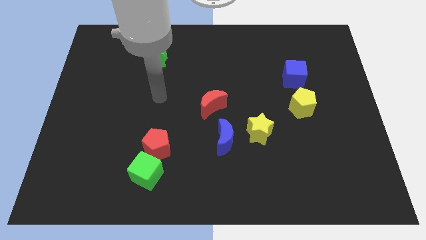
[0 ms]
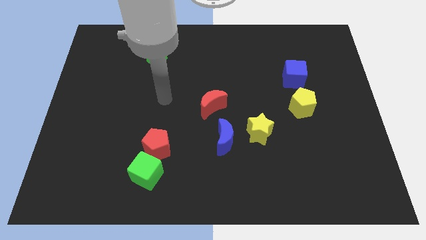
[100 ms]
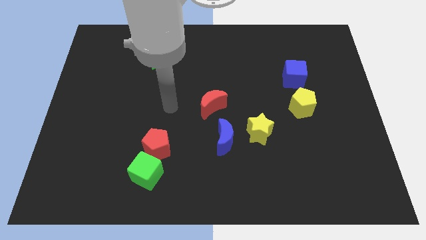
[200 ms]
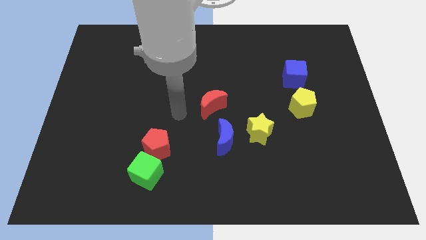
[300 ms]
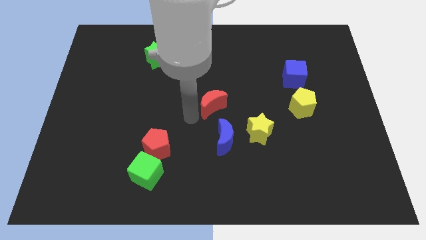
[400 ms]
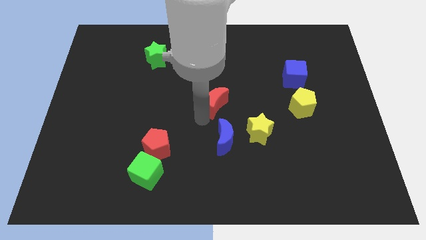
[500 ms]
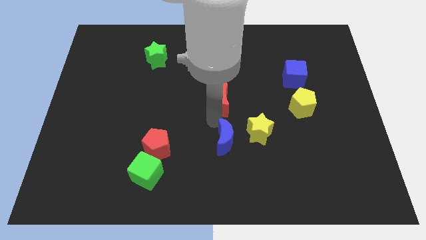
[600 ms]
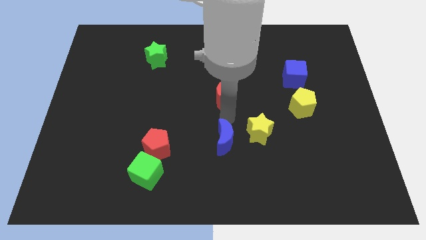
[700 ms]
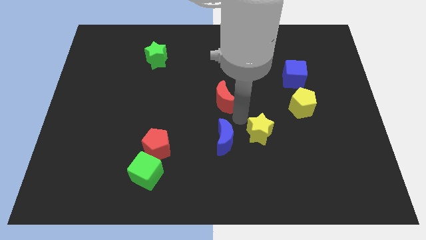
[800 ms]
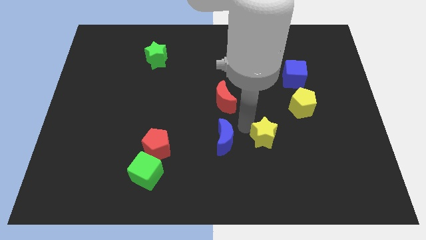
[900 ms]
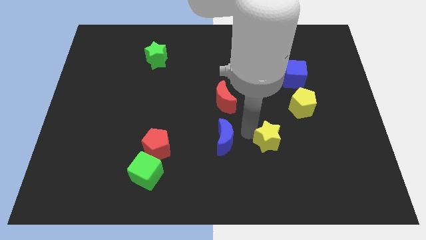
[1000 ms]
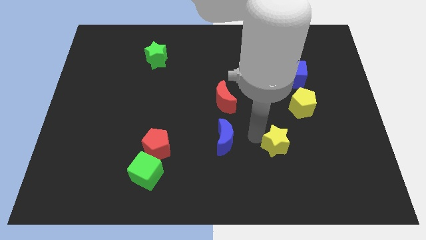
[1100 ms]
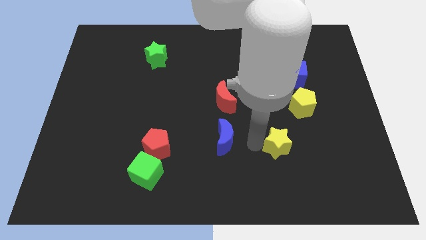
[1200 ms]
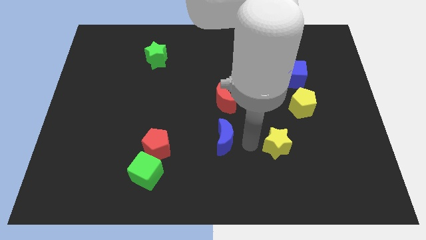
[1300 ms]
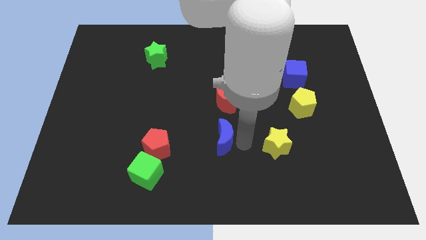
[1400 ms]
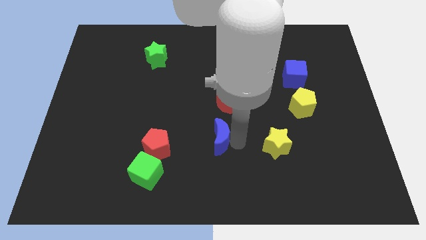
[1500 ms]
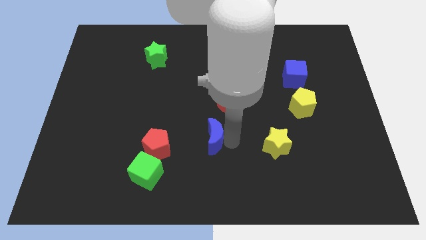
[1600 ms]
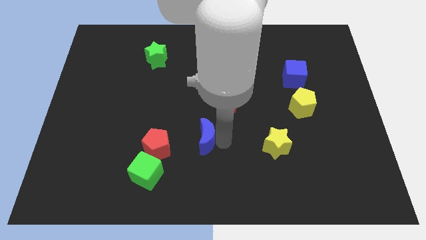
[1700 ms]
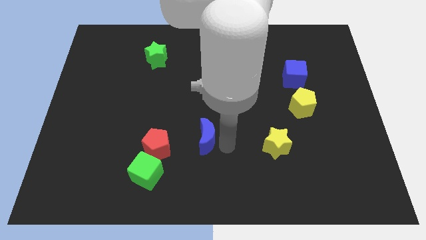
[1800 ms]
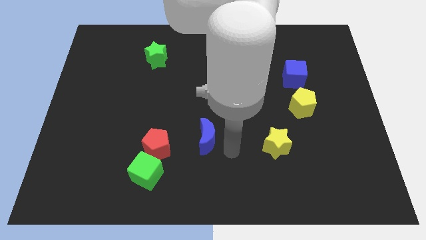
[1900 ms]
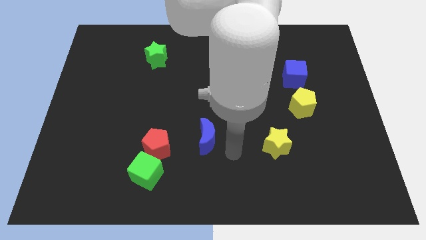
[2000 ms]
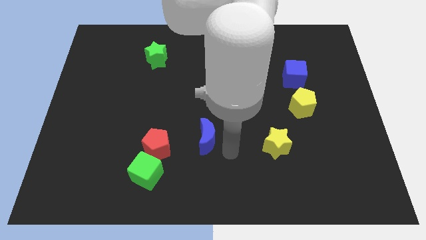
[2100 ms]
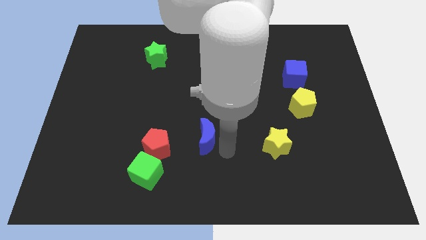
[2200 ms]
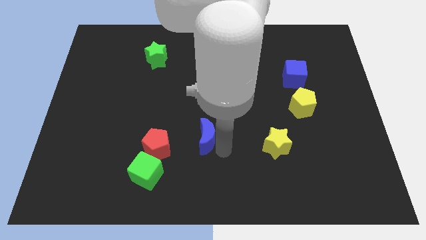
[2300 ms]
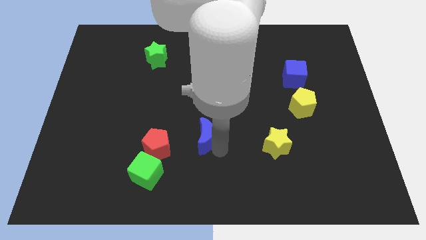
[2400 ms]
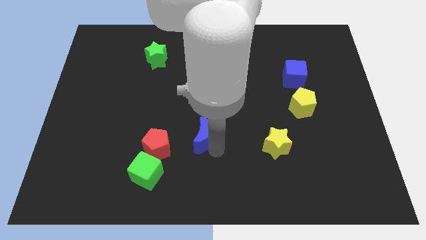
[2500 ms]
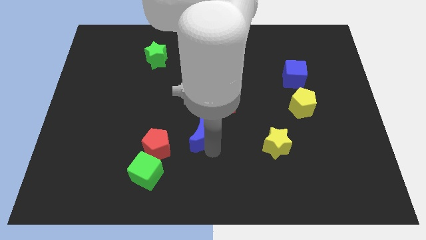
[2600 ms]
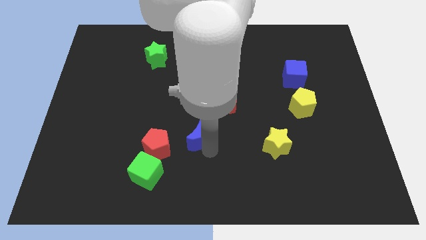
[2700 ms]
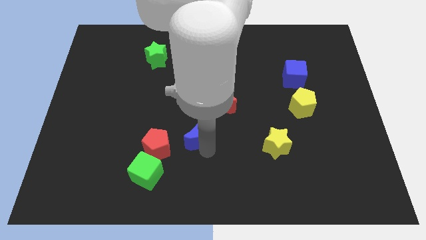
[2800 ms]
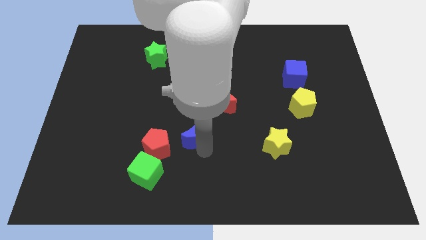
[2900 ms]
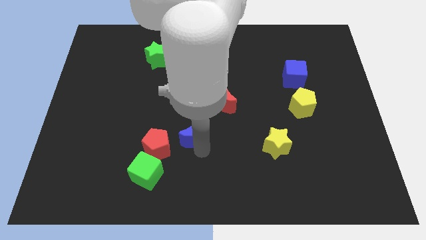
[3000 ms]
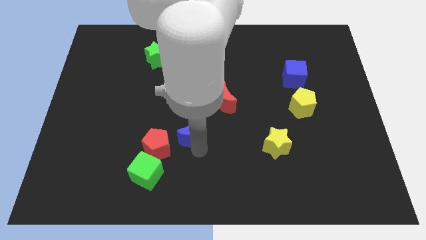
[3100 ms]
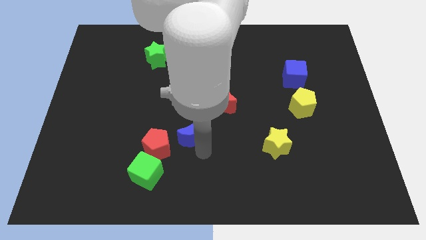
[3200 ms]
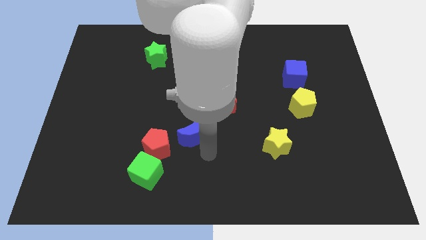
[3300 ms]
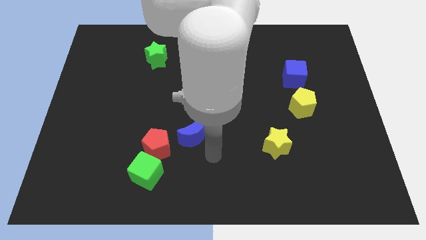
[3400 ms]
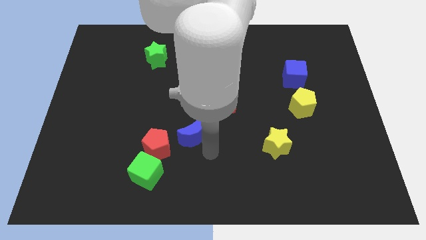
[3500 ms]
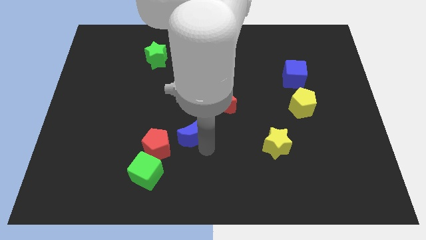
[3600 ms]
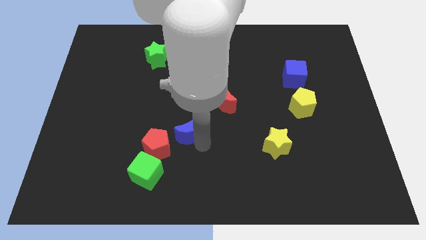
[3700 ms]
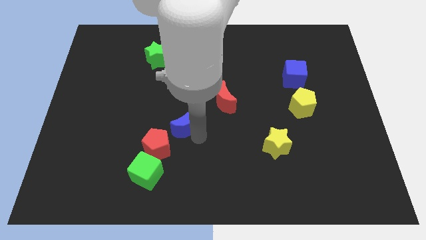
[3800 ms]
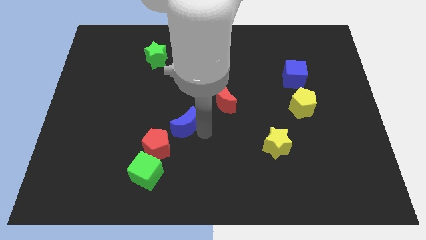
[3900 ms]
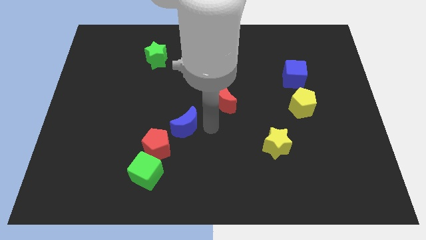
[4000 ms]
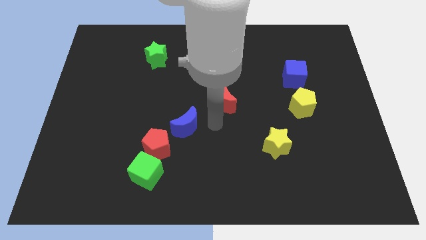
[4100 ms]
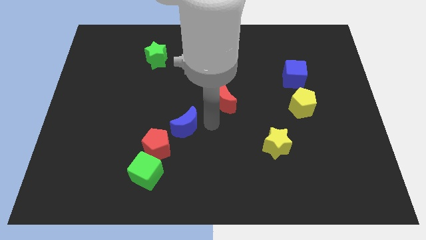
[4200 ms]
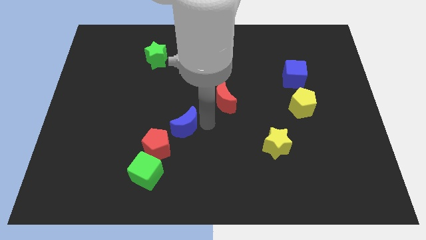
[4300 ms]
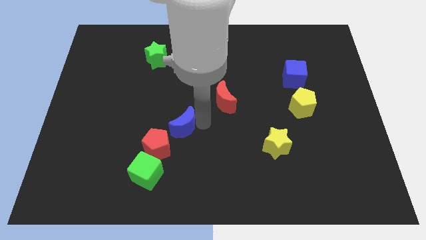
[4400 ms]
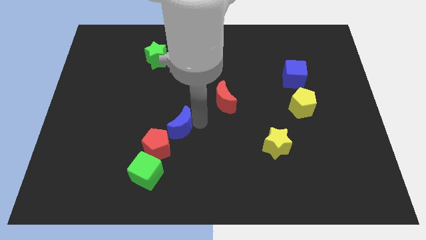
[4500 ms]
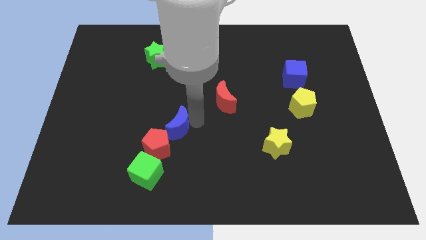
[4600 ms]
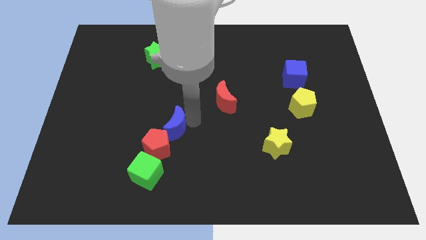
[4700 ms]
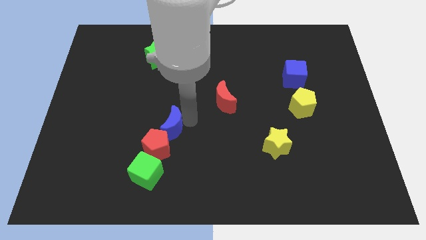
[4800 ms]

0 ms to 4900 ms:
push the blue moon to the top side of the green cube

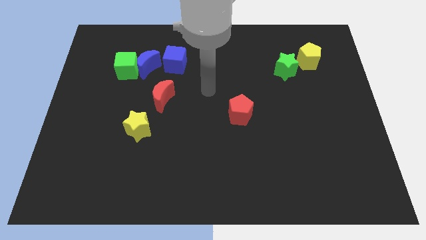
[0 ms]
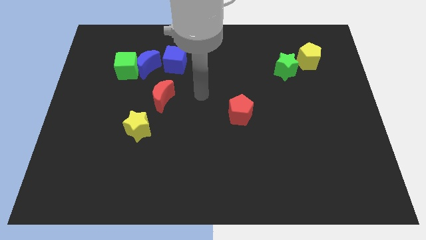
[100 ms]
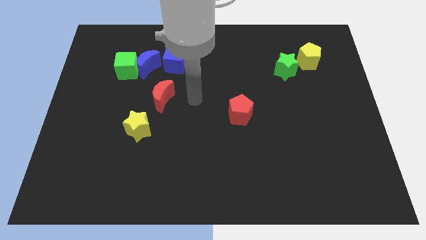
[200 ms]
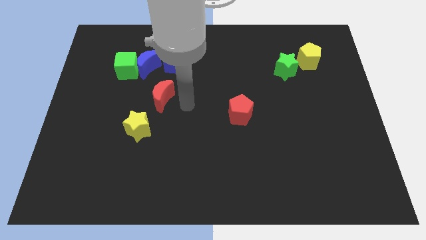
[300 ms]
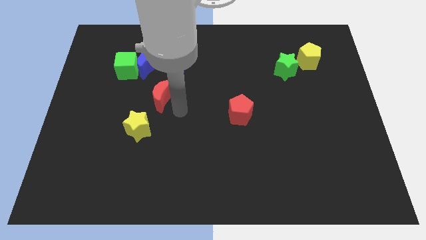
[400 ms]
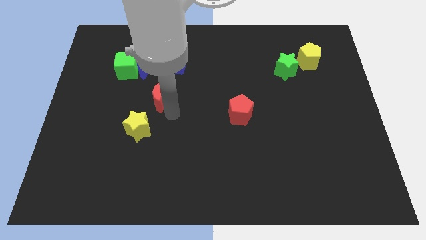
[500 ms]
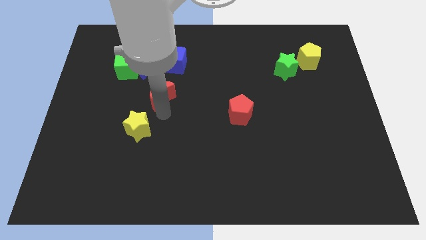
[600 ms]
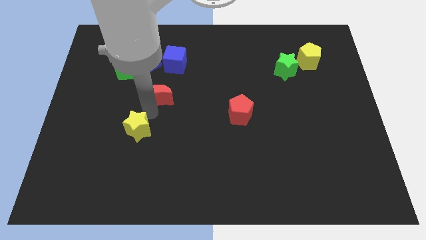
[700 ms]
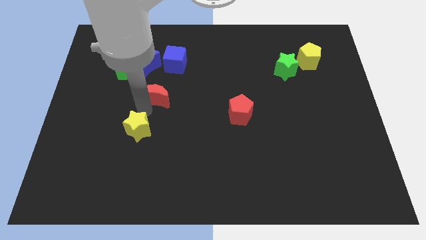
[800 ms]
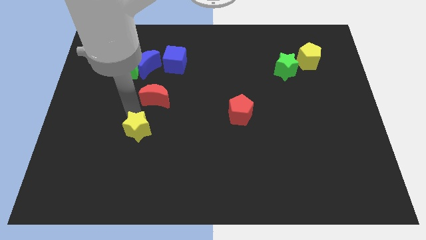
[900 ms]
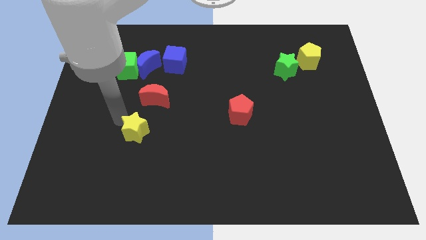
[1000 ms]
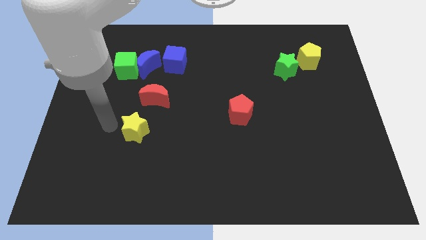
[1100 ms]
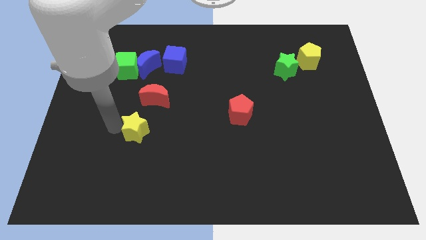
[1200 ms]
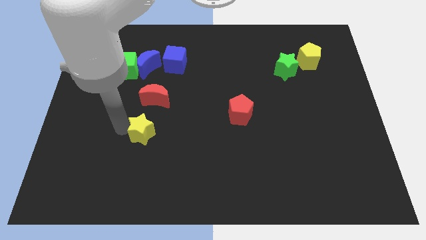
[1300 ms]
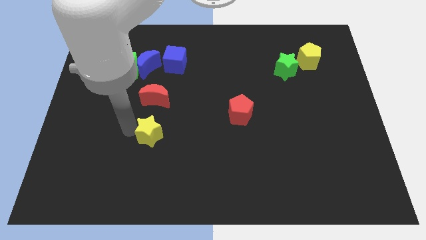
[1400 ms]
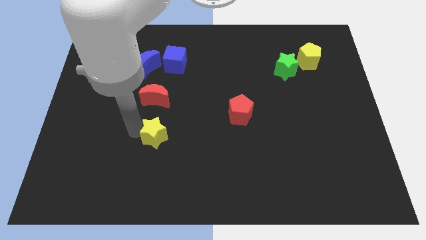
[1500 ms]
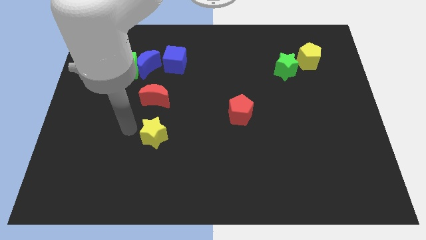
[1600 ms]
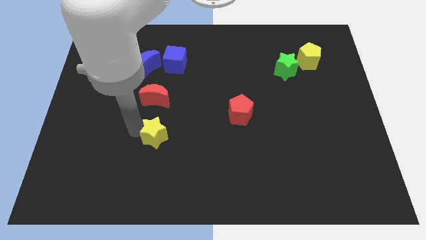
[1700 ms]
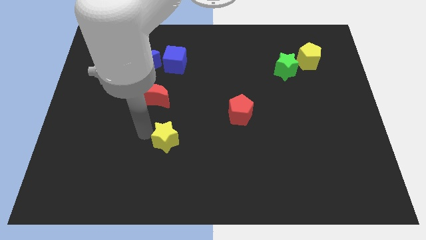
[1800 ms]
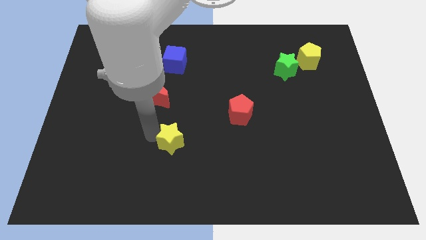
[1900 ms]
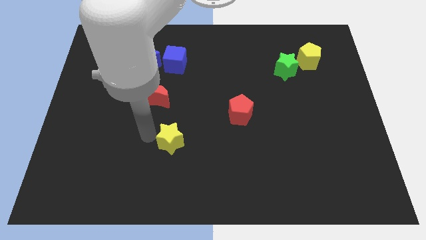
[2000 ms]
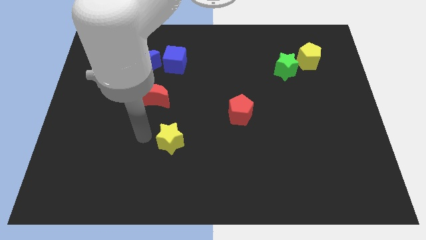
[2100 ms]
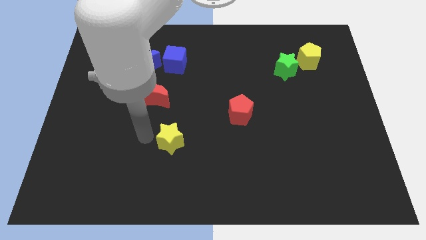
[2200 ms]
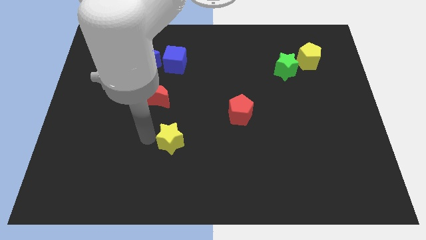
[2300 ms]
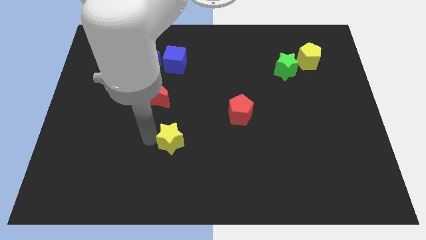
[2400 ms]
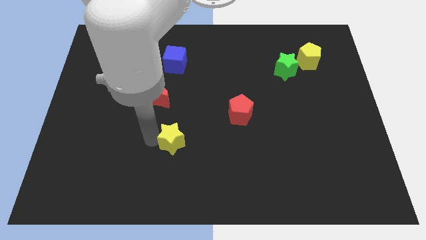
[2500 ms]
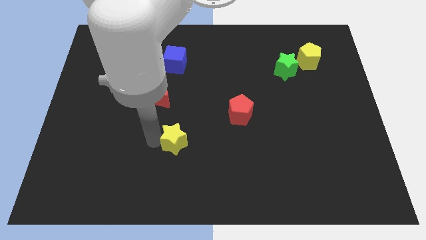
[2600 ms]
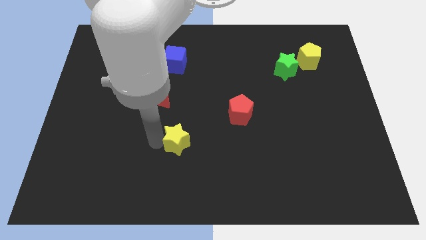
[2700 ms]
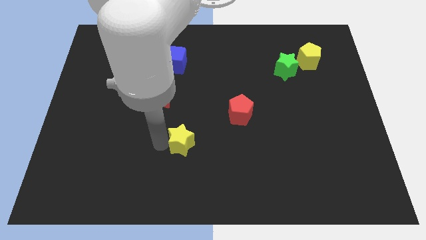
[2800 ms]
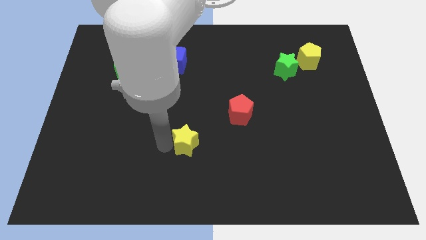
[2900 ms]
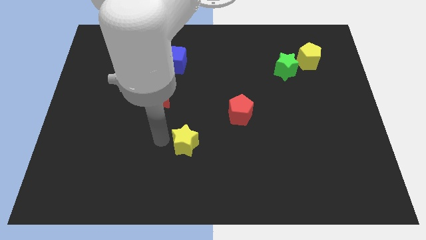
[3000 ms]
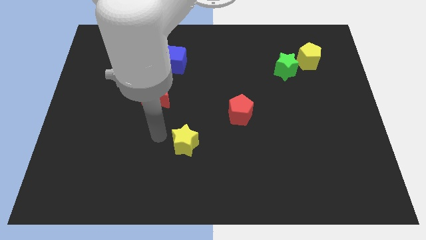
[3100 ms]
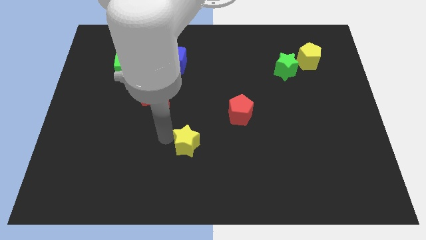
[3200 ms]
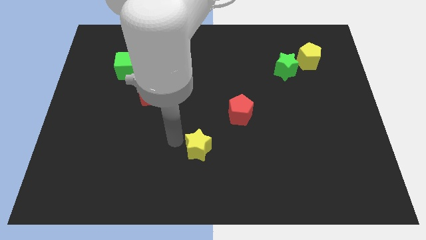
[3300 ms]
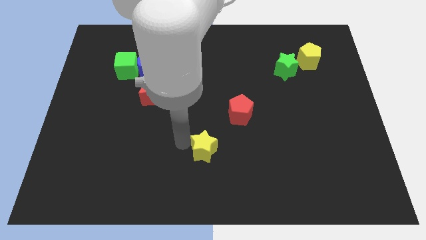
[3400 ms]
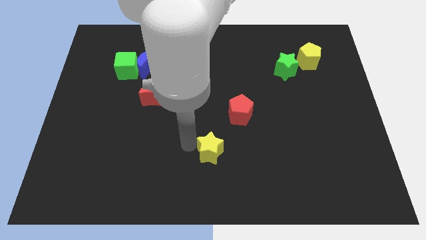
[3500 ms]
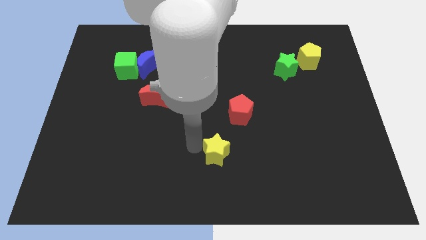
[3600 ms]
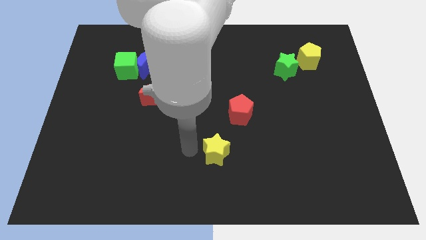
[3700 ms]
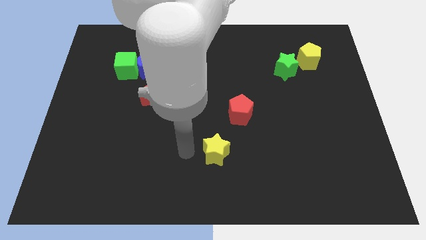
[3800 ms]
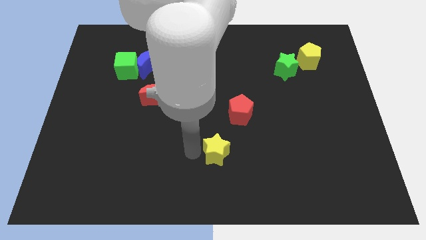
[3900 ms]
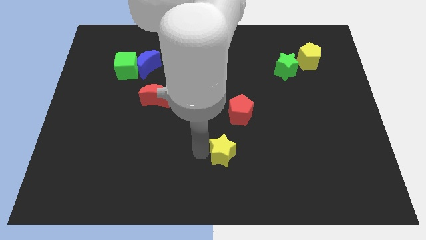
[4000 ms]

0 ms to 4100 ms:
put the yellow star below the red pentagon
